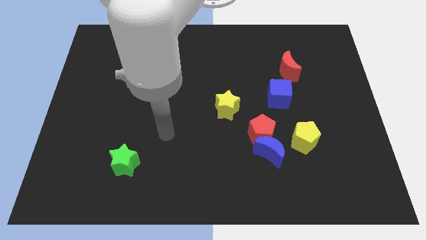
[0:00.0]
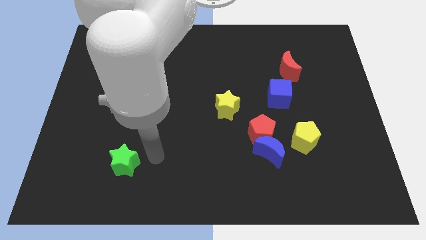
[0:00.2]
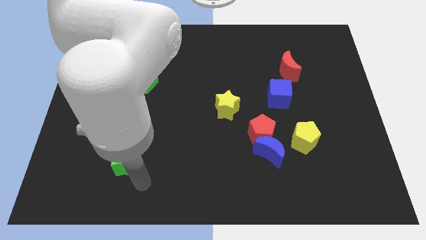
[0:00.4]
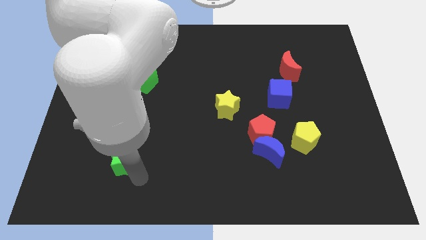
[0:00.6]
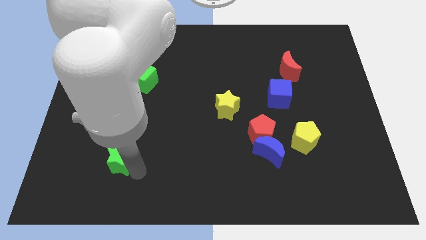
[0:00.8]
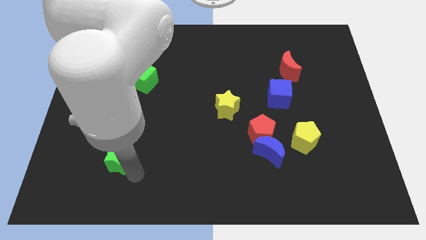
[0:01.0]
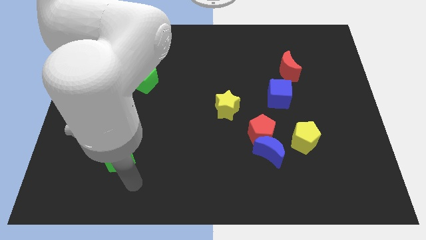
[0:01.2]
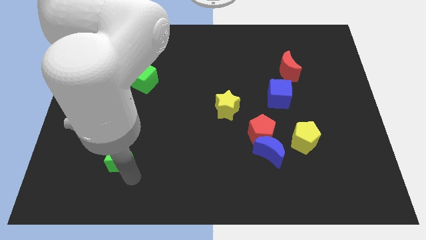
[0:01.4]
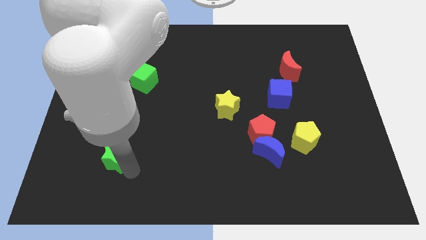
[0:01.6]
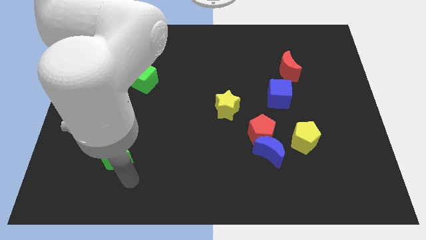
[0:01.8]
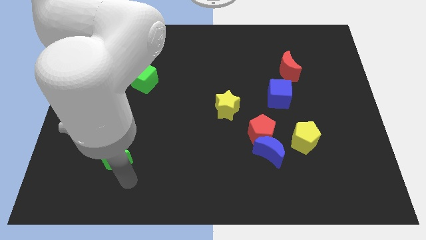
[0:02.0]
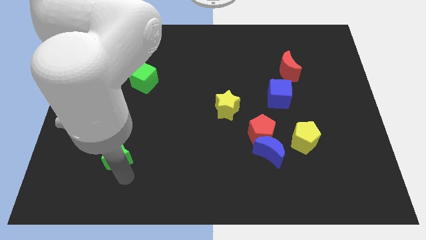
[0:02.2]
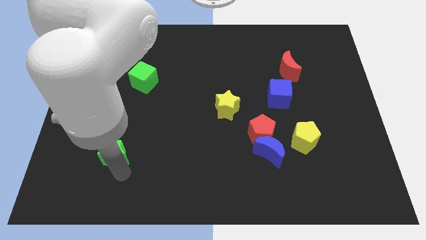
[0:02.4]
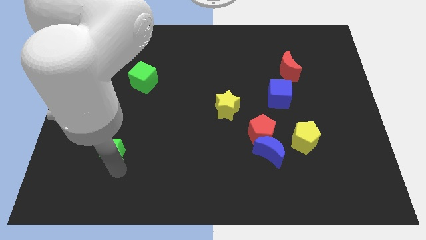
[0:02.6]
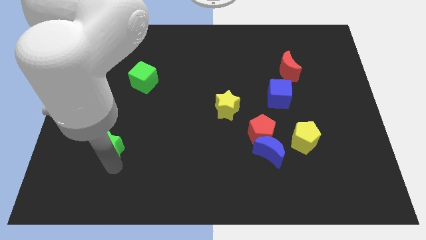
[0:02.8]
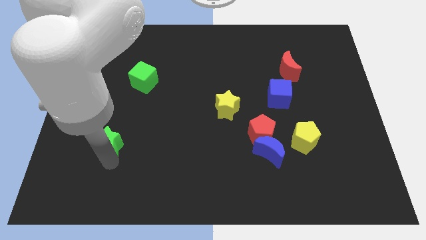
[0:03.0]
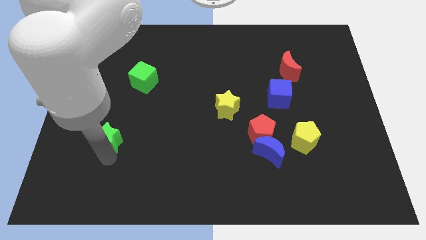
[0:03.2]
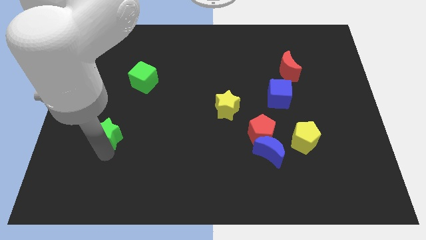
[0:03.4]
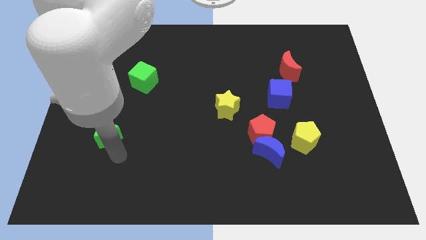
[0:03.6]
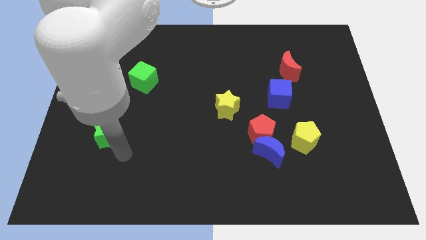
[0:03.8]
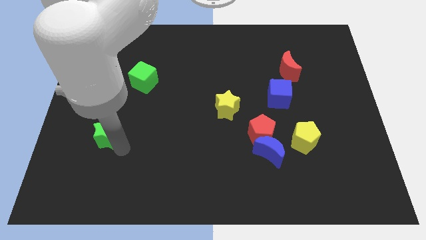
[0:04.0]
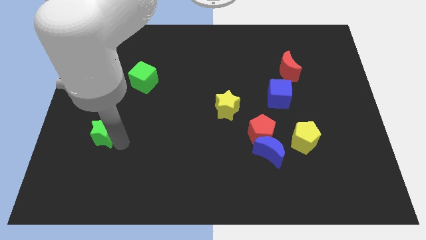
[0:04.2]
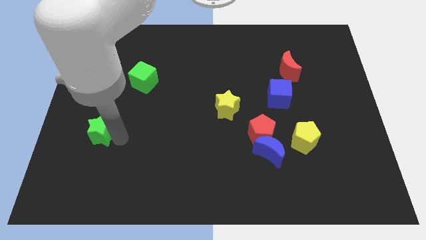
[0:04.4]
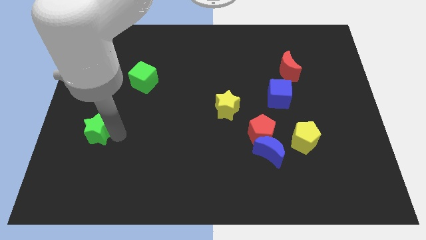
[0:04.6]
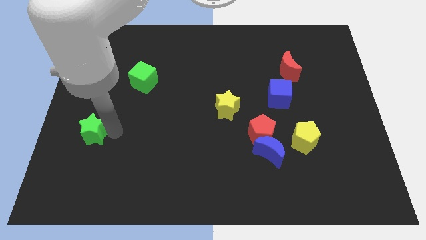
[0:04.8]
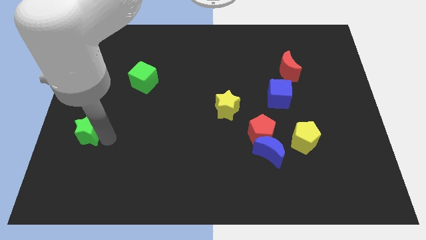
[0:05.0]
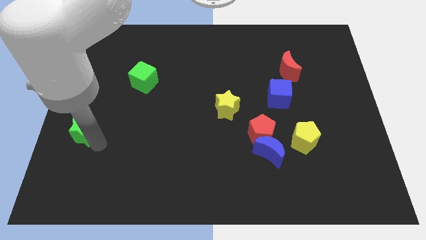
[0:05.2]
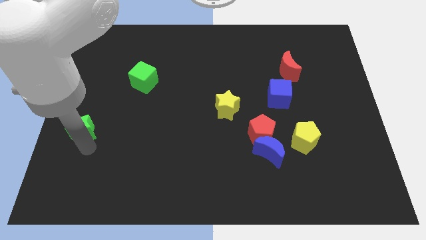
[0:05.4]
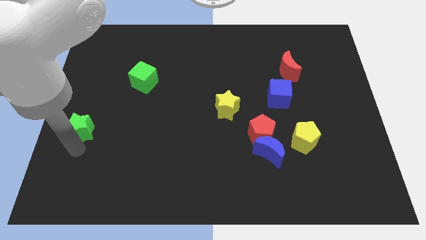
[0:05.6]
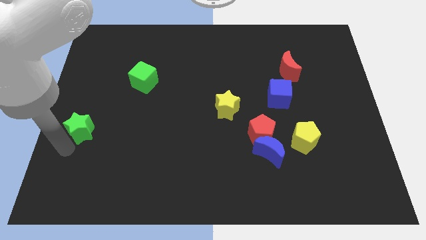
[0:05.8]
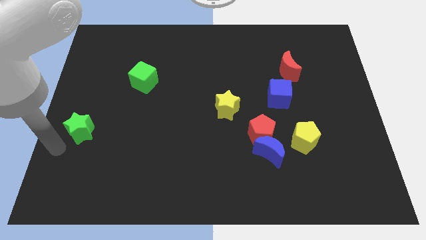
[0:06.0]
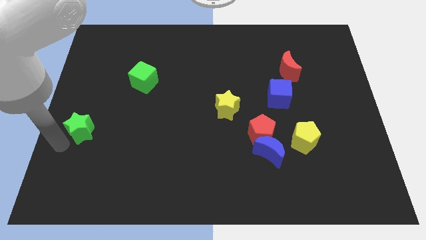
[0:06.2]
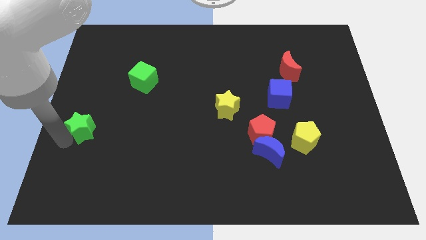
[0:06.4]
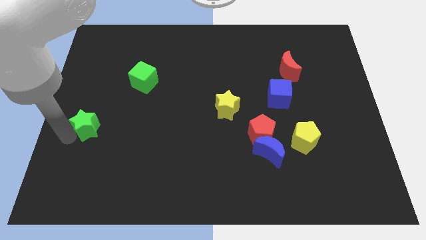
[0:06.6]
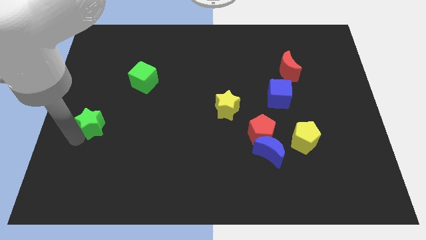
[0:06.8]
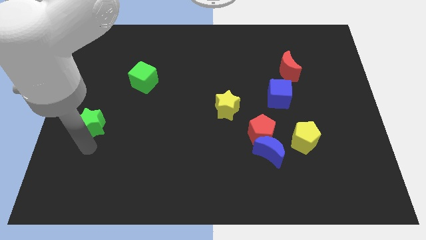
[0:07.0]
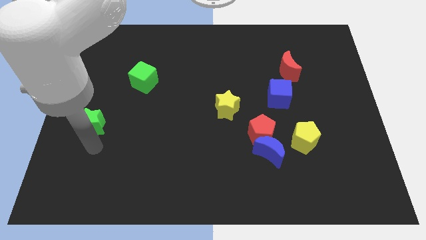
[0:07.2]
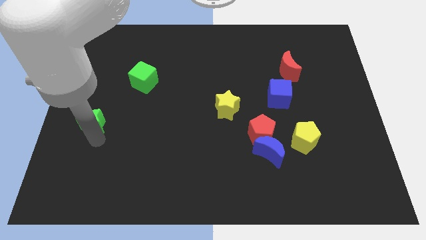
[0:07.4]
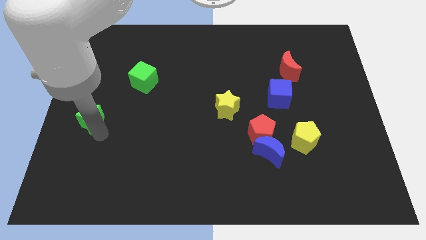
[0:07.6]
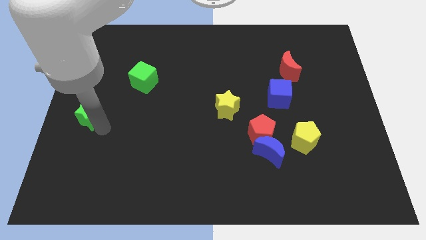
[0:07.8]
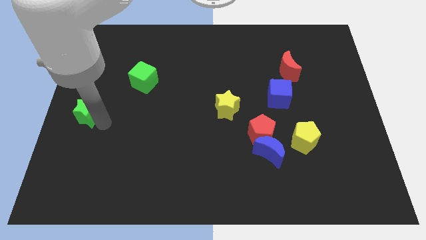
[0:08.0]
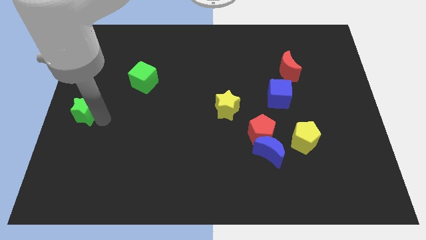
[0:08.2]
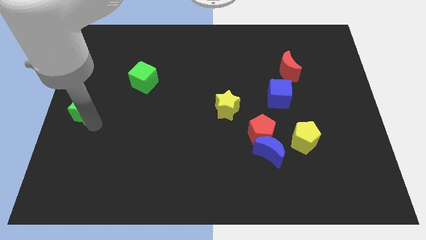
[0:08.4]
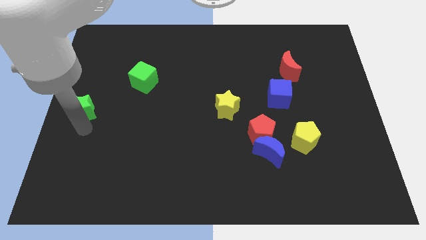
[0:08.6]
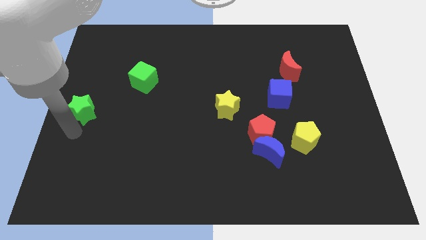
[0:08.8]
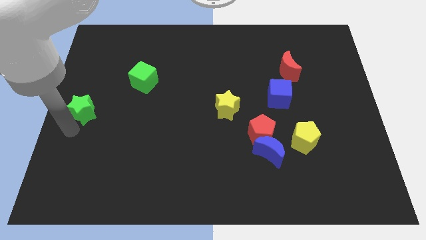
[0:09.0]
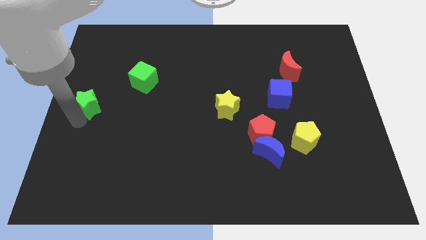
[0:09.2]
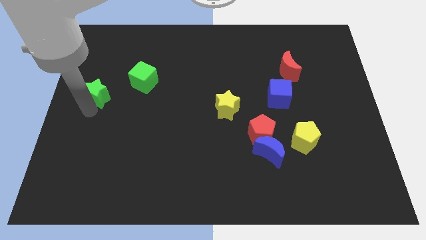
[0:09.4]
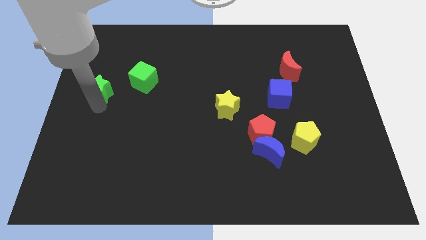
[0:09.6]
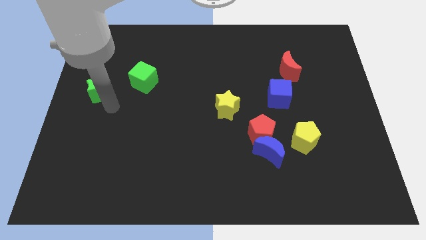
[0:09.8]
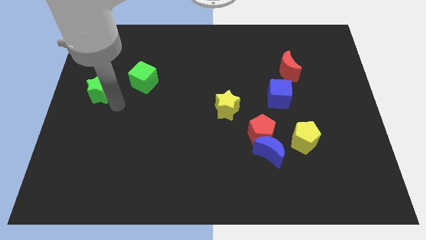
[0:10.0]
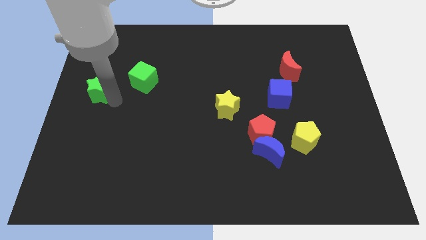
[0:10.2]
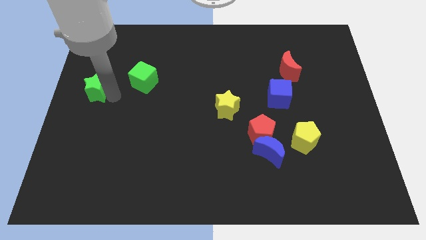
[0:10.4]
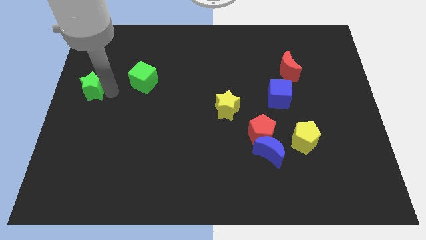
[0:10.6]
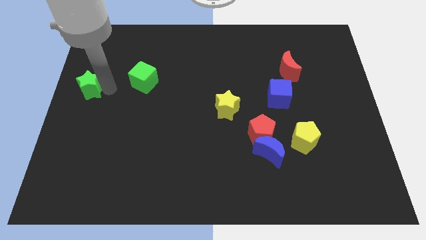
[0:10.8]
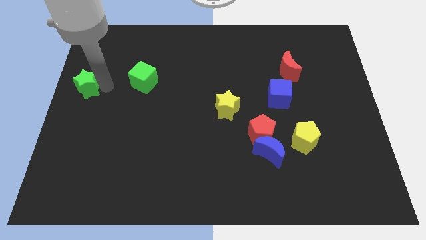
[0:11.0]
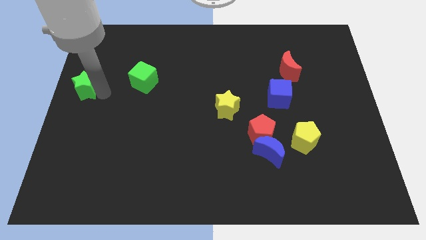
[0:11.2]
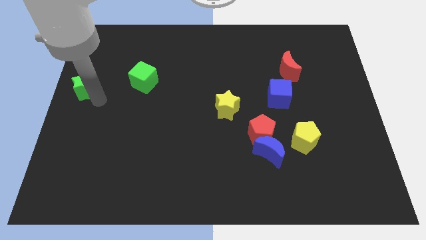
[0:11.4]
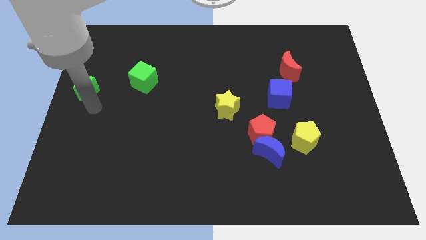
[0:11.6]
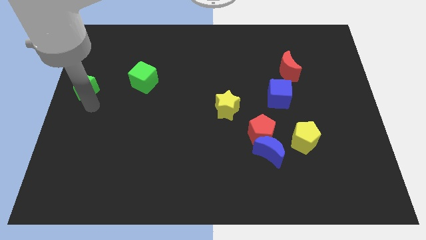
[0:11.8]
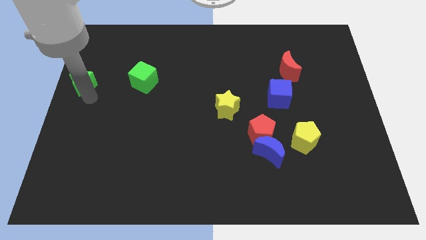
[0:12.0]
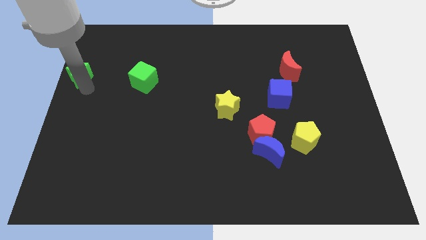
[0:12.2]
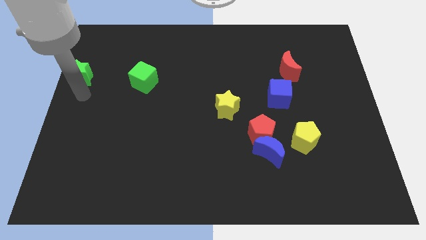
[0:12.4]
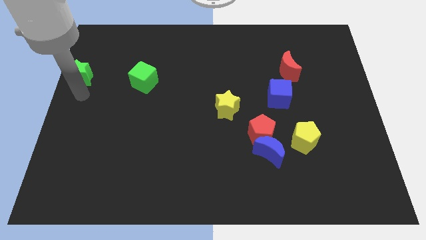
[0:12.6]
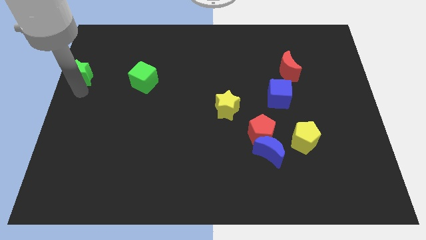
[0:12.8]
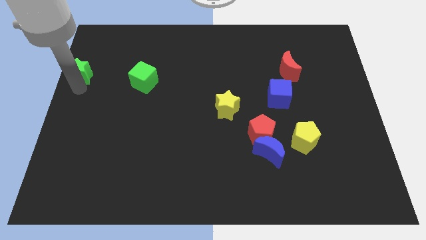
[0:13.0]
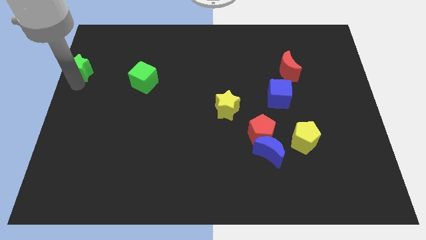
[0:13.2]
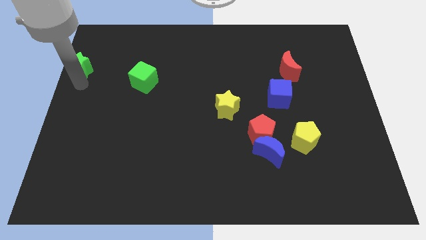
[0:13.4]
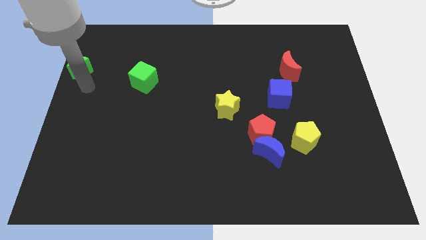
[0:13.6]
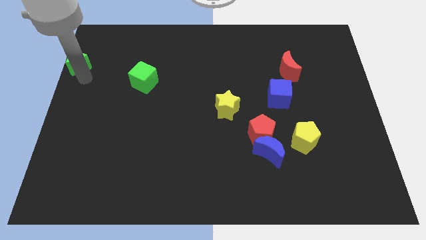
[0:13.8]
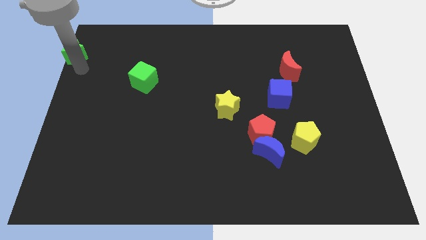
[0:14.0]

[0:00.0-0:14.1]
put the green star to the top left corner
